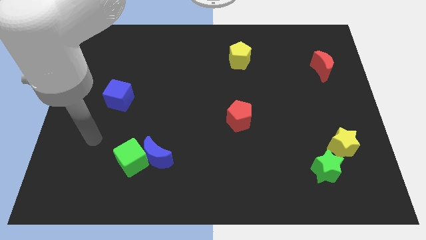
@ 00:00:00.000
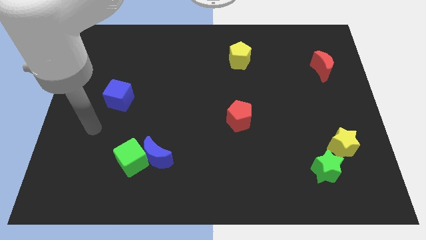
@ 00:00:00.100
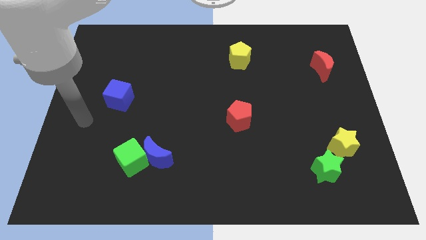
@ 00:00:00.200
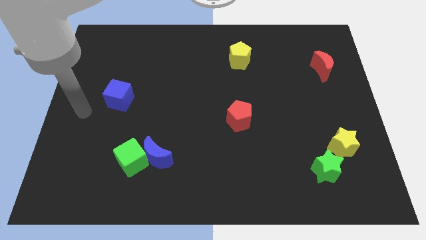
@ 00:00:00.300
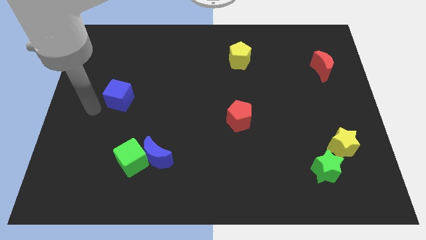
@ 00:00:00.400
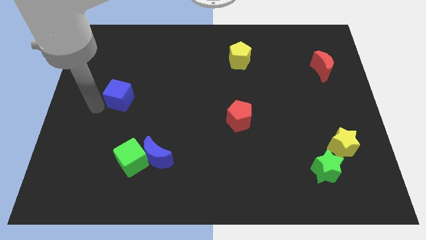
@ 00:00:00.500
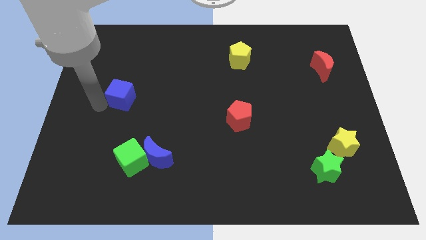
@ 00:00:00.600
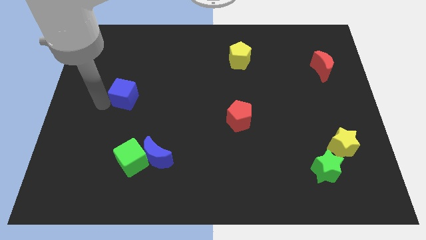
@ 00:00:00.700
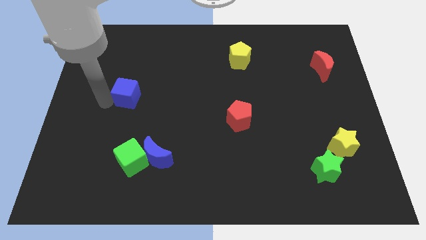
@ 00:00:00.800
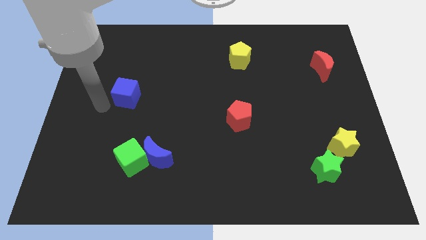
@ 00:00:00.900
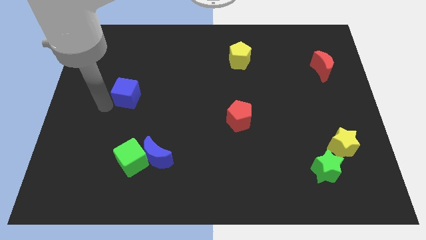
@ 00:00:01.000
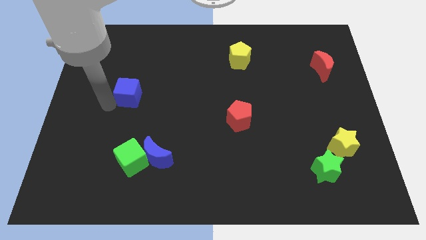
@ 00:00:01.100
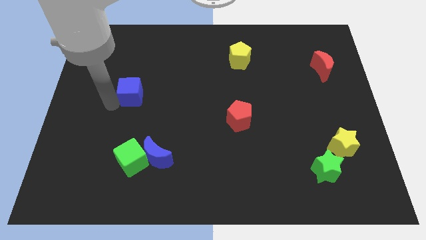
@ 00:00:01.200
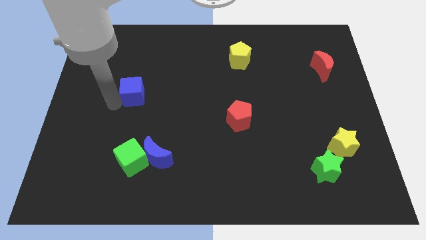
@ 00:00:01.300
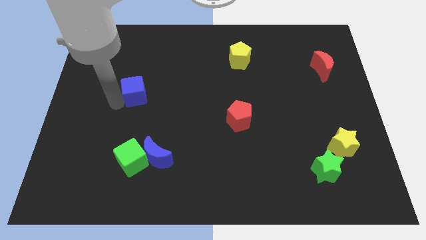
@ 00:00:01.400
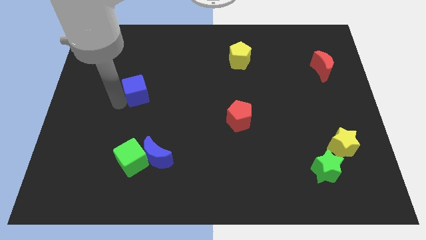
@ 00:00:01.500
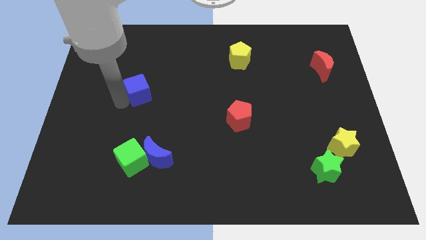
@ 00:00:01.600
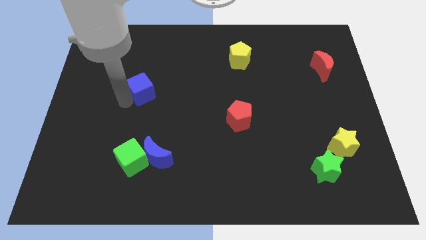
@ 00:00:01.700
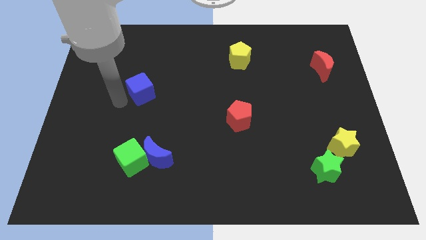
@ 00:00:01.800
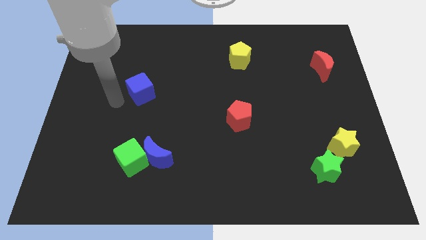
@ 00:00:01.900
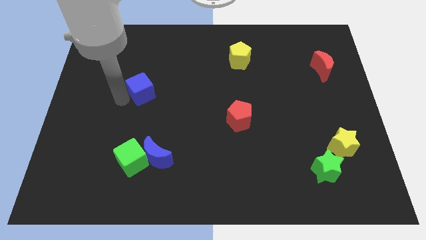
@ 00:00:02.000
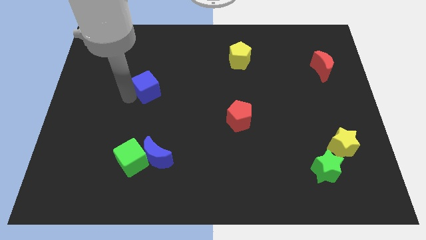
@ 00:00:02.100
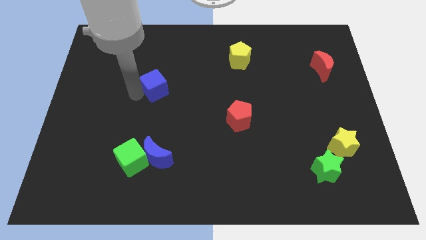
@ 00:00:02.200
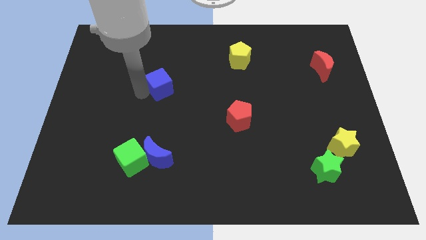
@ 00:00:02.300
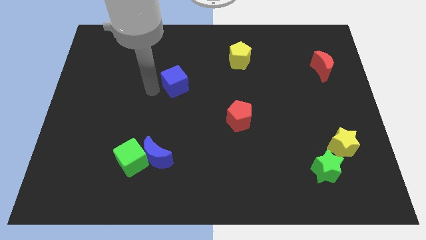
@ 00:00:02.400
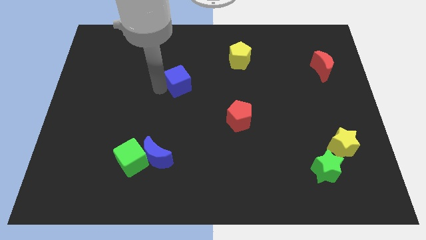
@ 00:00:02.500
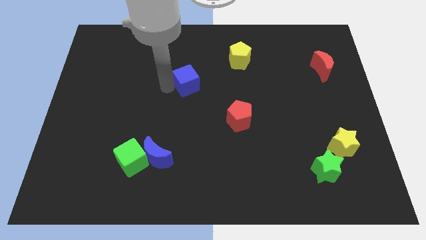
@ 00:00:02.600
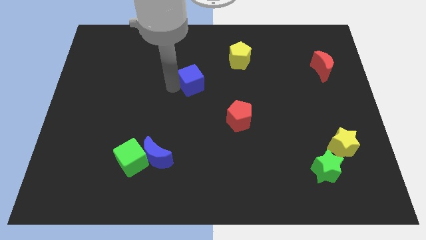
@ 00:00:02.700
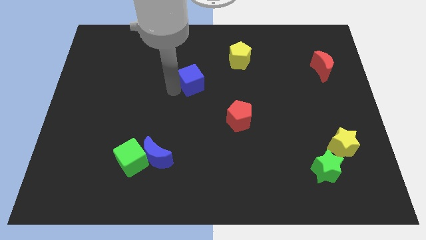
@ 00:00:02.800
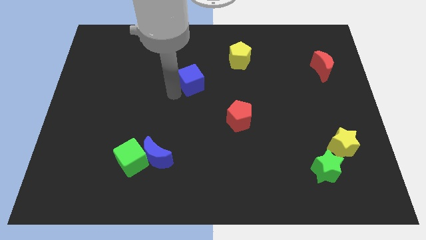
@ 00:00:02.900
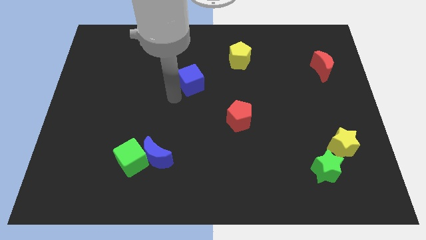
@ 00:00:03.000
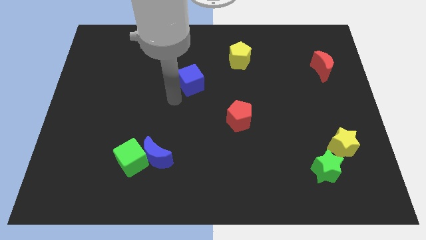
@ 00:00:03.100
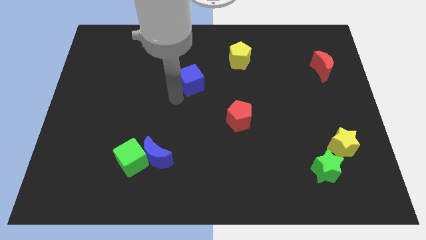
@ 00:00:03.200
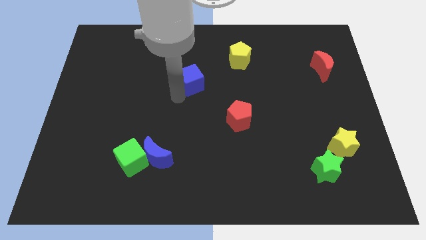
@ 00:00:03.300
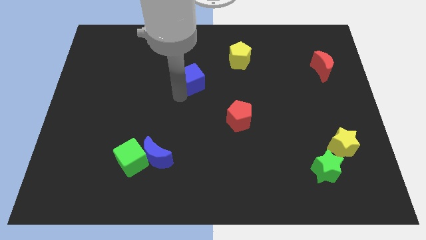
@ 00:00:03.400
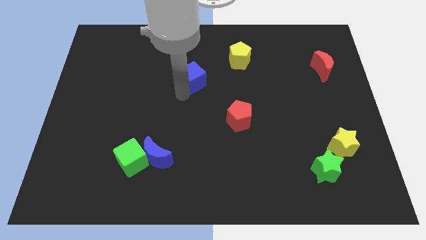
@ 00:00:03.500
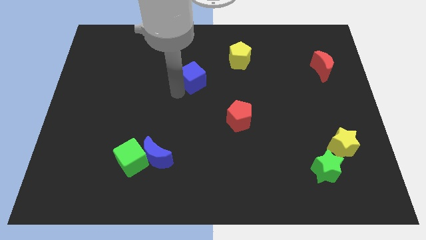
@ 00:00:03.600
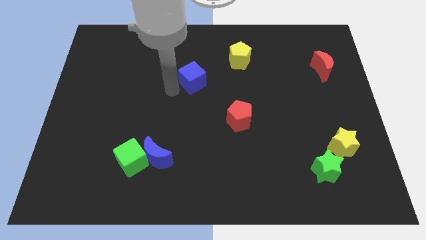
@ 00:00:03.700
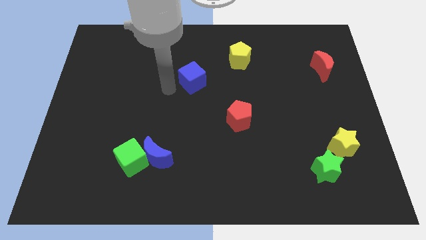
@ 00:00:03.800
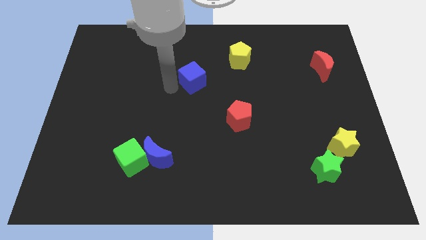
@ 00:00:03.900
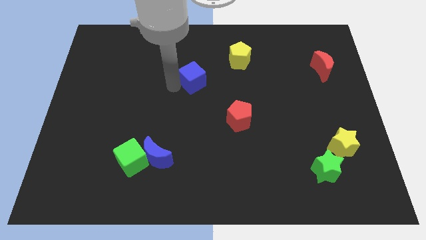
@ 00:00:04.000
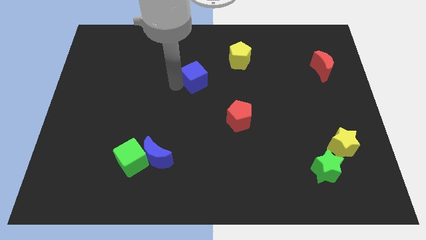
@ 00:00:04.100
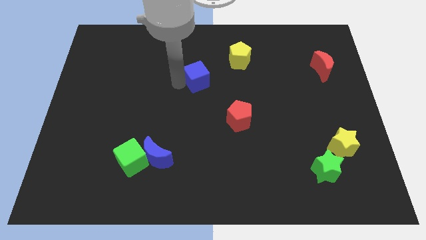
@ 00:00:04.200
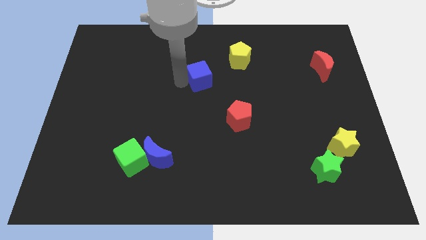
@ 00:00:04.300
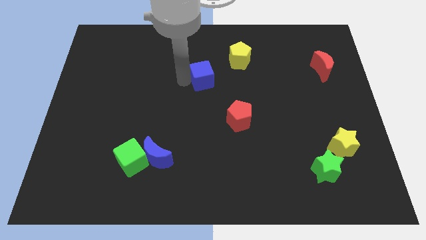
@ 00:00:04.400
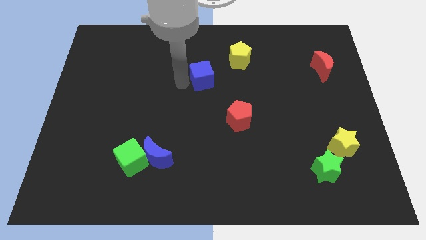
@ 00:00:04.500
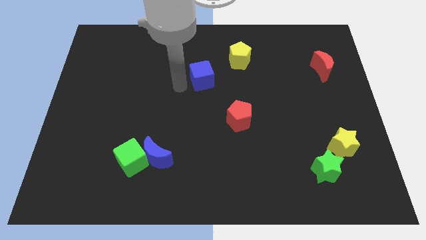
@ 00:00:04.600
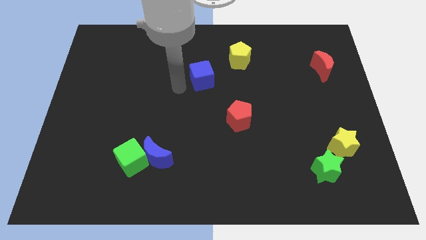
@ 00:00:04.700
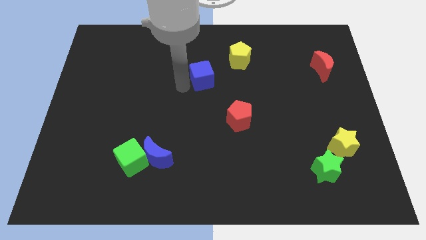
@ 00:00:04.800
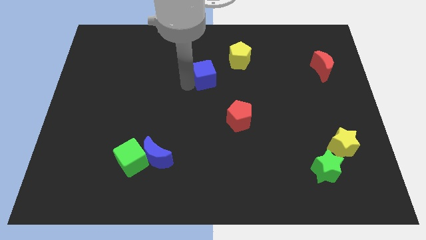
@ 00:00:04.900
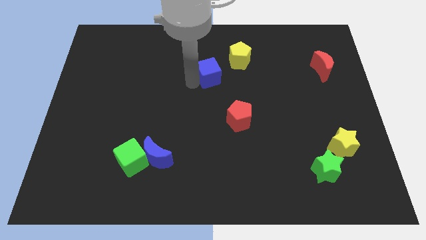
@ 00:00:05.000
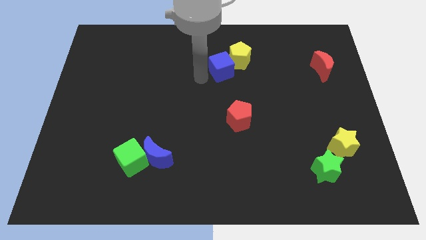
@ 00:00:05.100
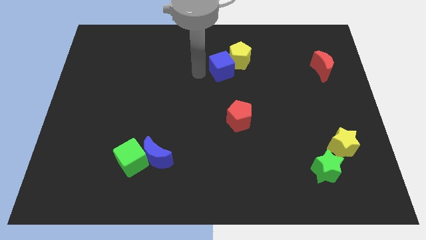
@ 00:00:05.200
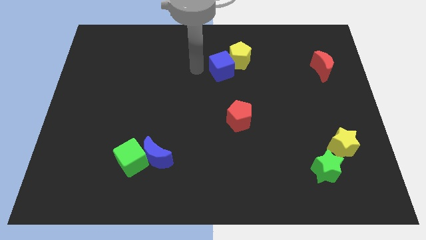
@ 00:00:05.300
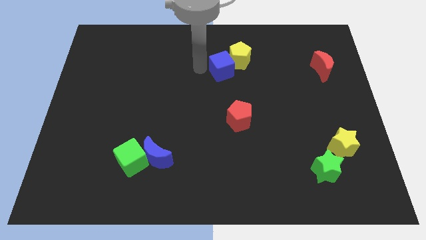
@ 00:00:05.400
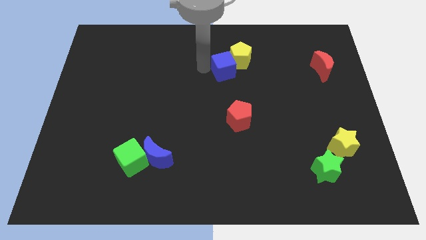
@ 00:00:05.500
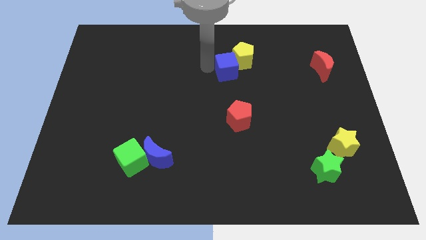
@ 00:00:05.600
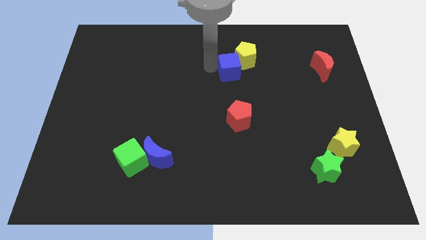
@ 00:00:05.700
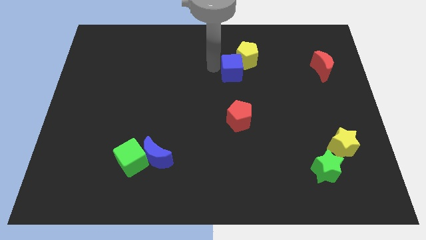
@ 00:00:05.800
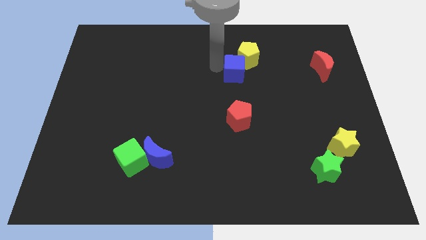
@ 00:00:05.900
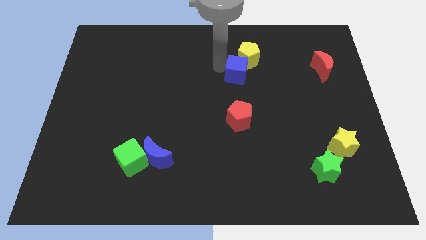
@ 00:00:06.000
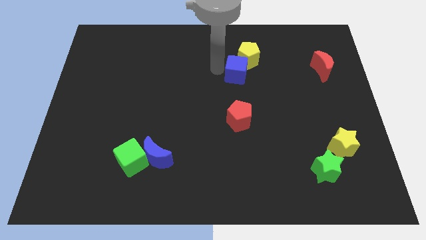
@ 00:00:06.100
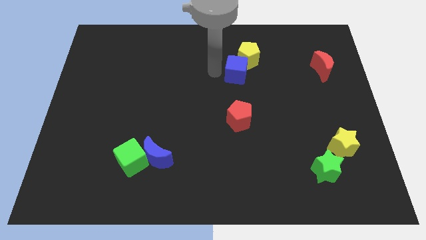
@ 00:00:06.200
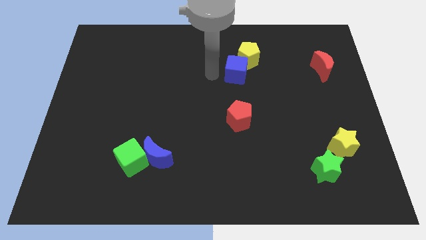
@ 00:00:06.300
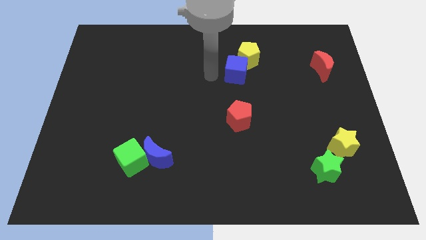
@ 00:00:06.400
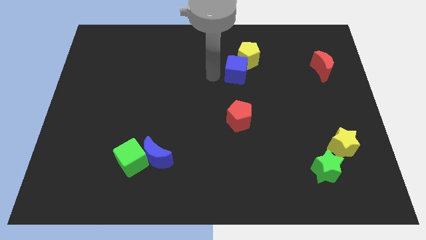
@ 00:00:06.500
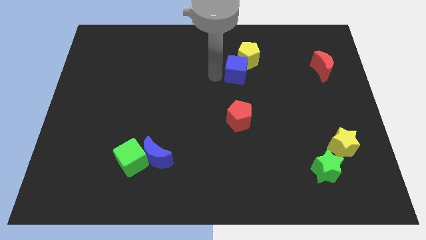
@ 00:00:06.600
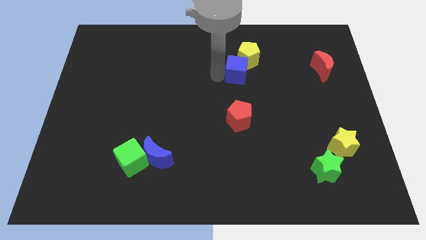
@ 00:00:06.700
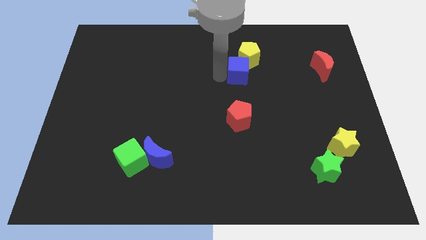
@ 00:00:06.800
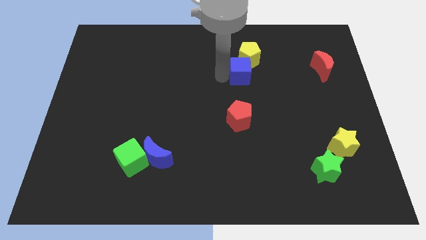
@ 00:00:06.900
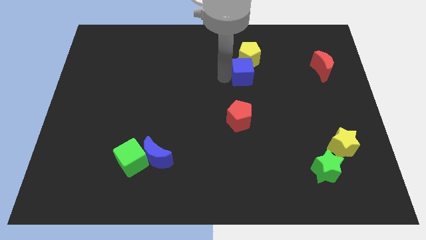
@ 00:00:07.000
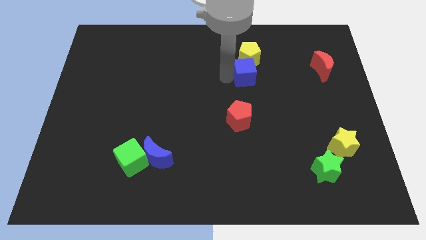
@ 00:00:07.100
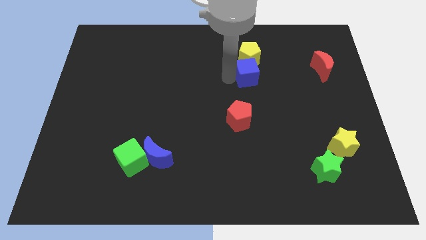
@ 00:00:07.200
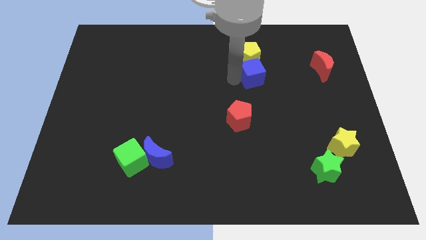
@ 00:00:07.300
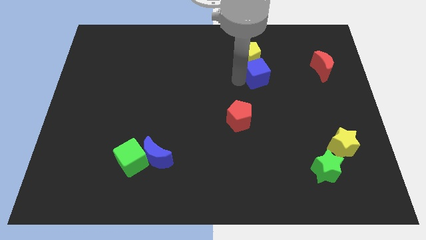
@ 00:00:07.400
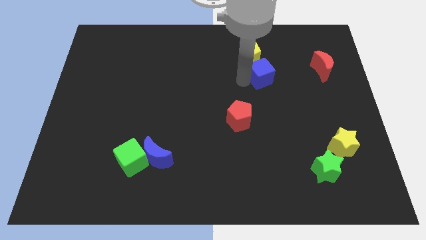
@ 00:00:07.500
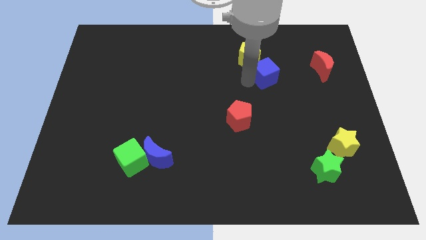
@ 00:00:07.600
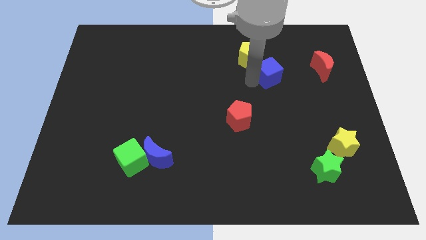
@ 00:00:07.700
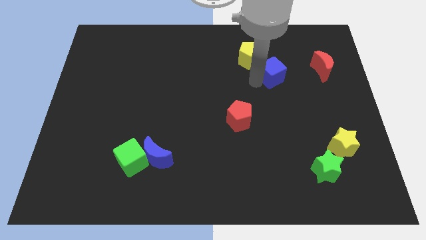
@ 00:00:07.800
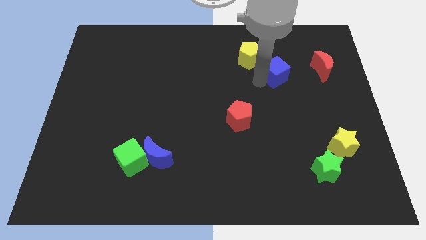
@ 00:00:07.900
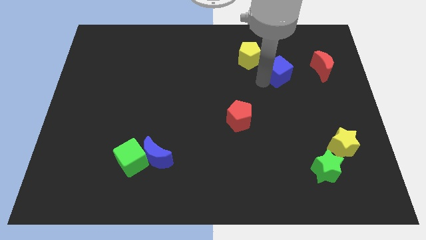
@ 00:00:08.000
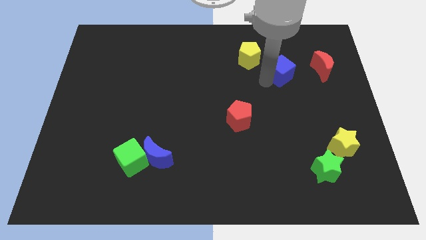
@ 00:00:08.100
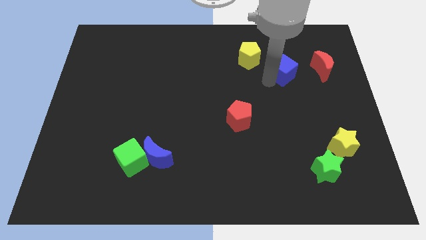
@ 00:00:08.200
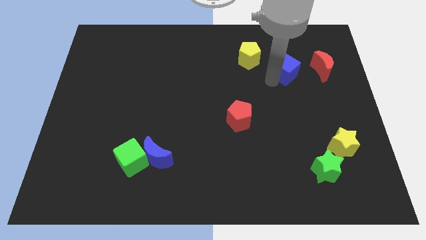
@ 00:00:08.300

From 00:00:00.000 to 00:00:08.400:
move the blue cube right of the yellow pentagon
